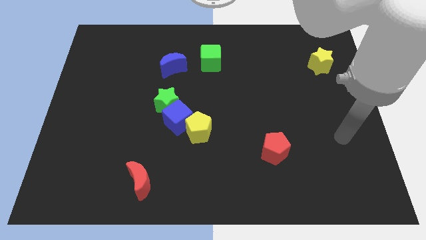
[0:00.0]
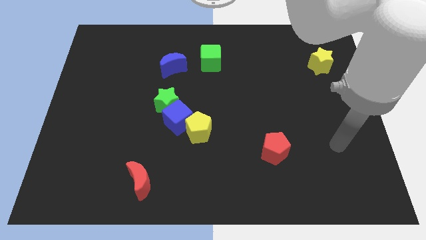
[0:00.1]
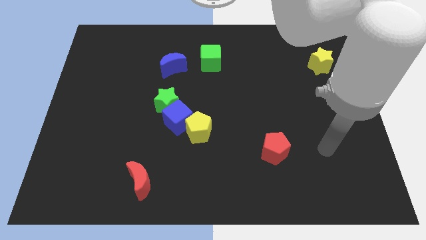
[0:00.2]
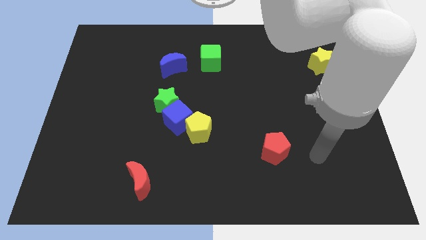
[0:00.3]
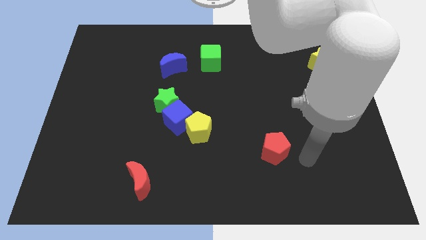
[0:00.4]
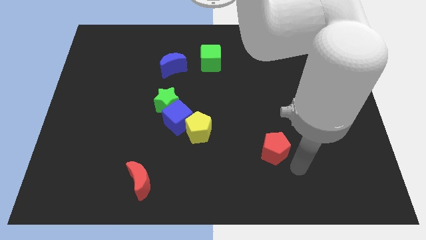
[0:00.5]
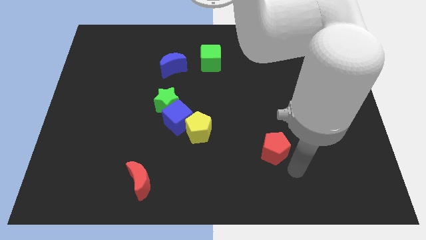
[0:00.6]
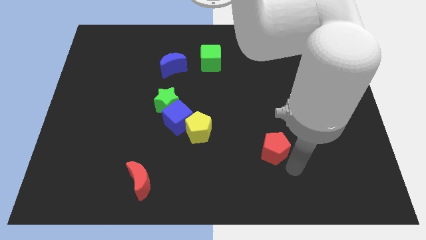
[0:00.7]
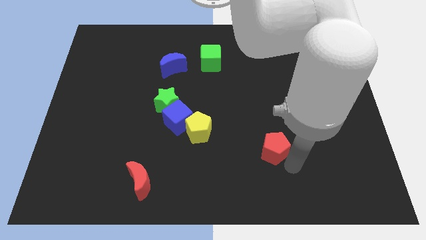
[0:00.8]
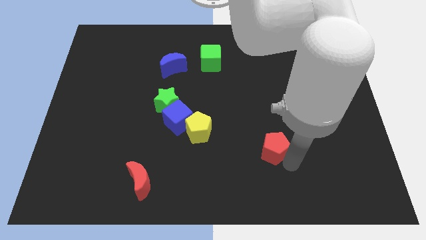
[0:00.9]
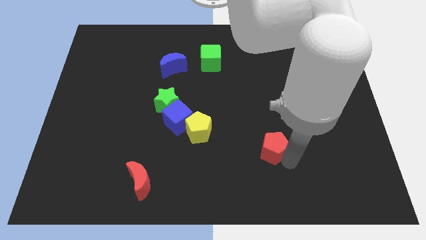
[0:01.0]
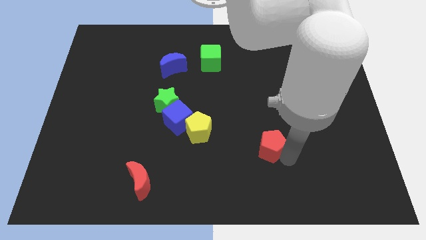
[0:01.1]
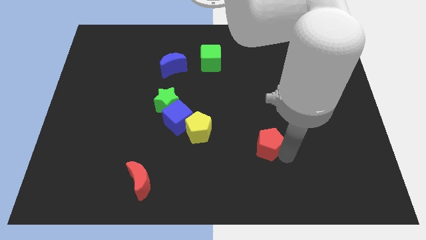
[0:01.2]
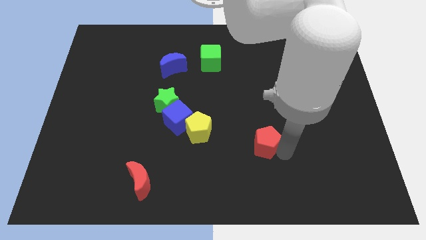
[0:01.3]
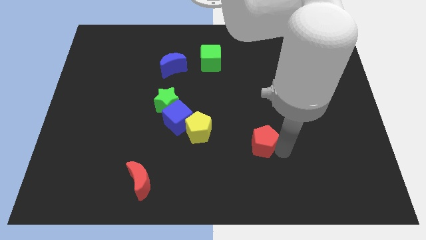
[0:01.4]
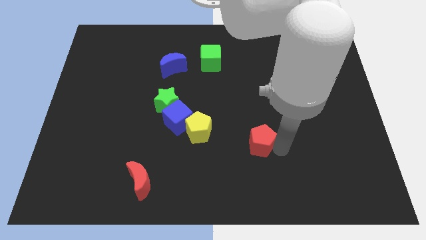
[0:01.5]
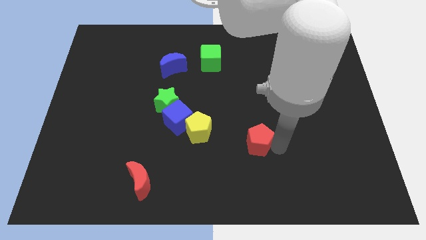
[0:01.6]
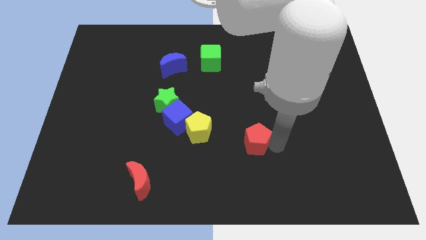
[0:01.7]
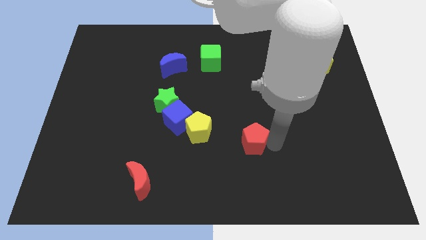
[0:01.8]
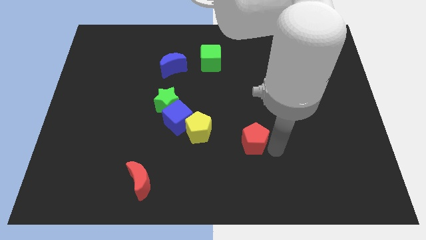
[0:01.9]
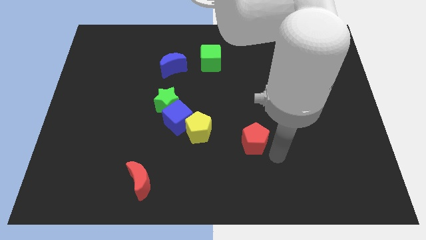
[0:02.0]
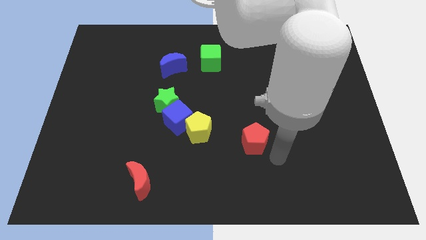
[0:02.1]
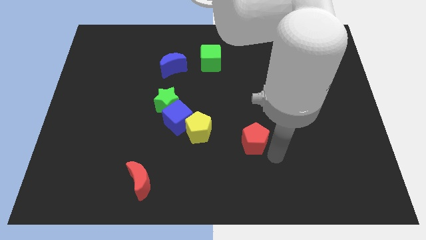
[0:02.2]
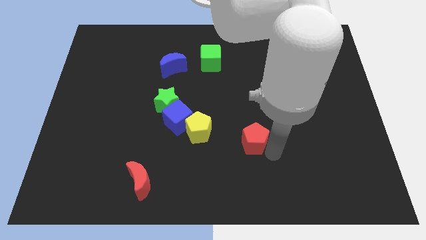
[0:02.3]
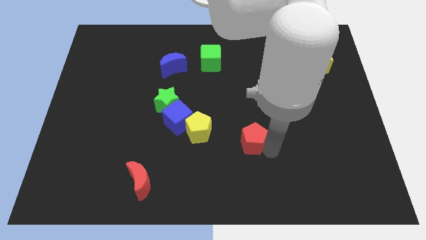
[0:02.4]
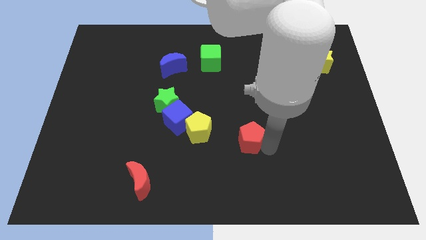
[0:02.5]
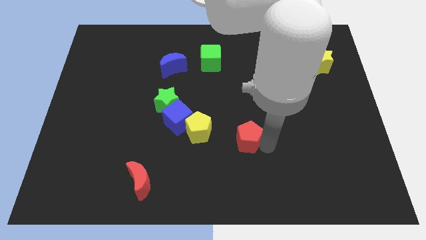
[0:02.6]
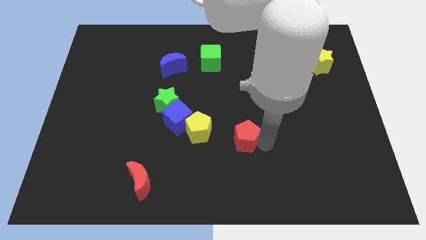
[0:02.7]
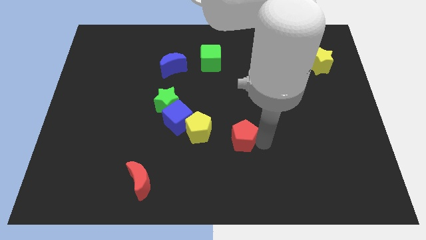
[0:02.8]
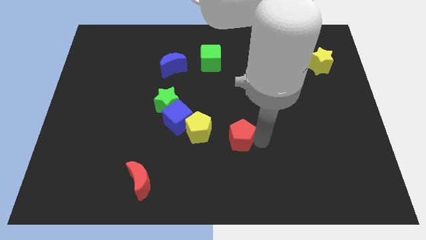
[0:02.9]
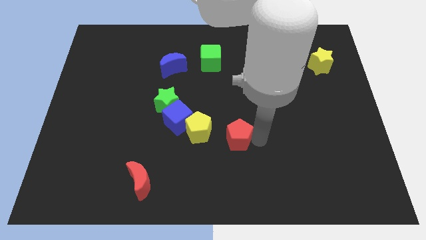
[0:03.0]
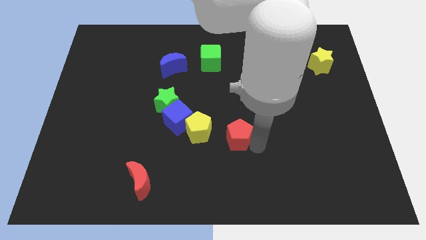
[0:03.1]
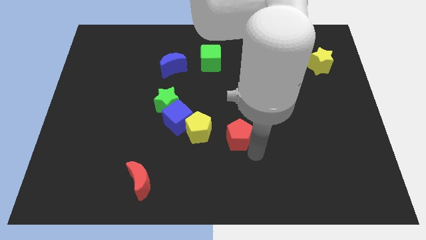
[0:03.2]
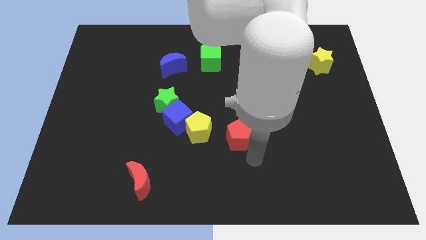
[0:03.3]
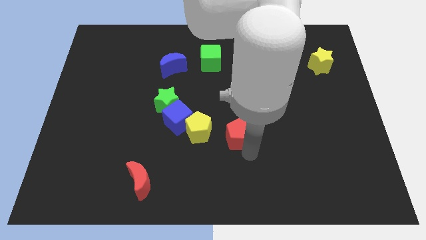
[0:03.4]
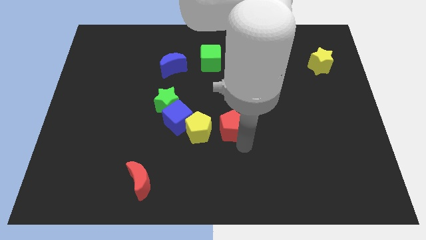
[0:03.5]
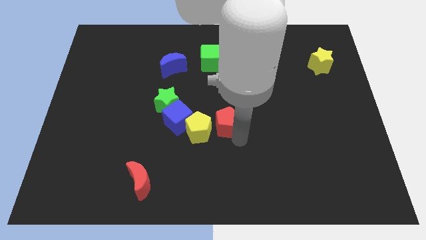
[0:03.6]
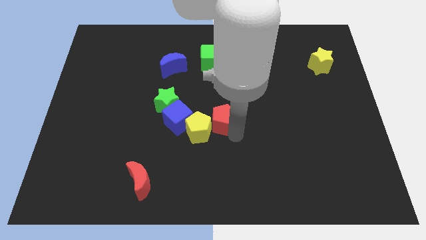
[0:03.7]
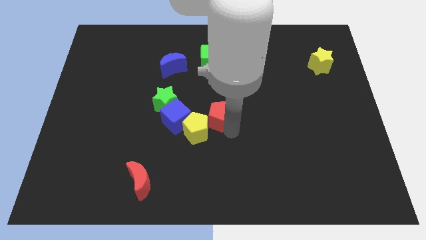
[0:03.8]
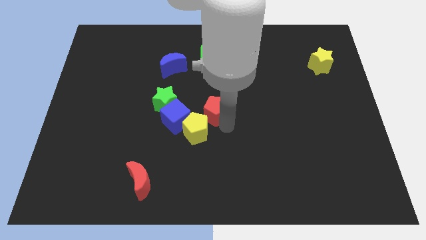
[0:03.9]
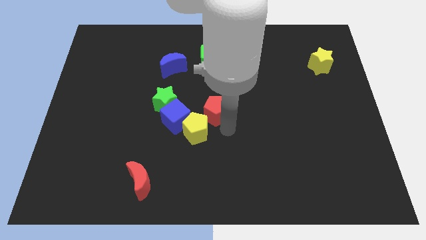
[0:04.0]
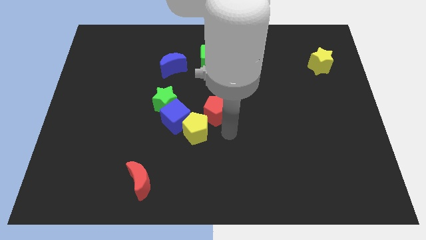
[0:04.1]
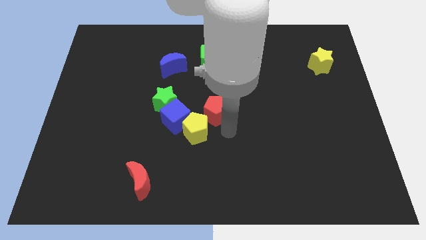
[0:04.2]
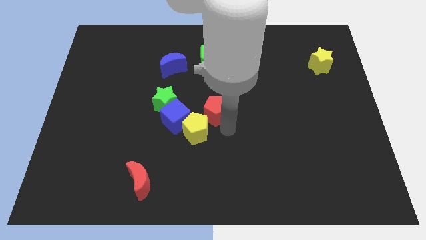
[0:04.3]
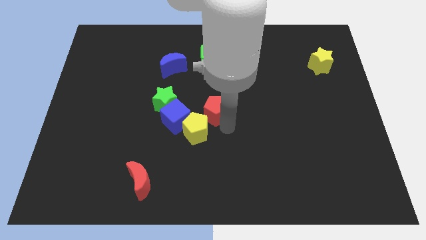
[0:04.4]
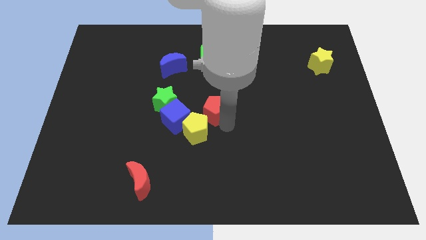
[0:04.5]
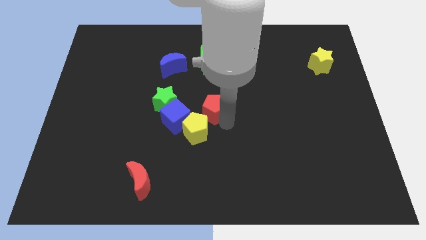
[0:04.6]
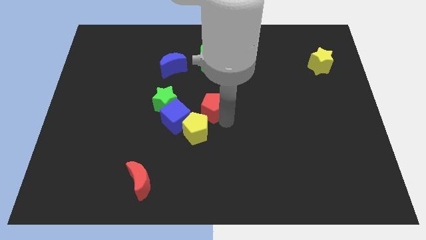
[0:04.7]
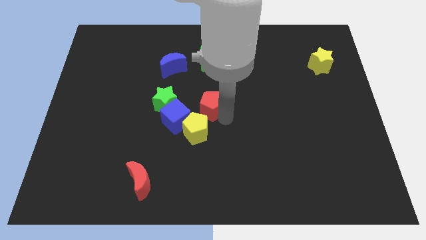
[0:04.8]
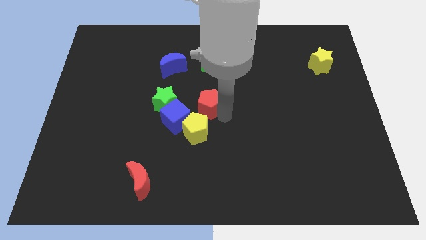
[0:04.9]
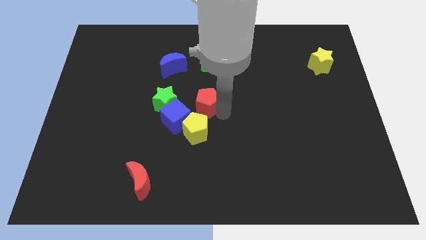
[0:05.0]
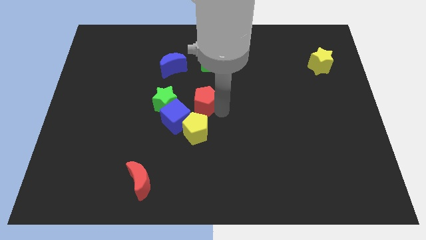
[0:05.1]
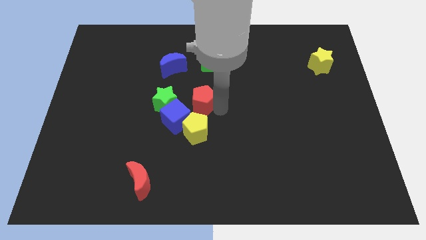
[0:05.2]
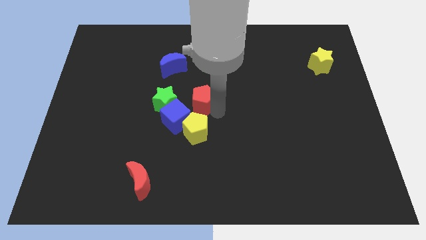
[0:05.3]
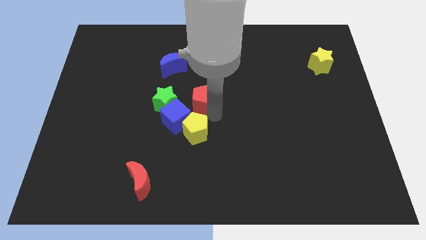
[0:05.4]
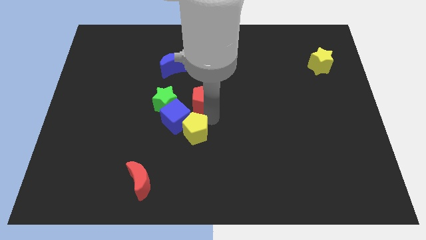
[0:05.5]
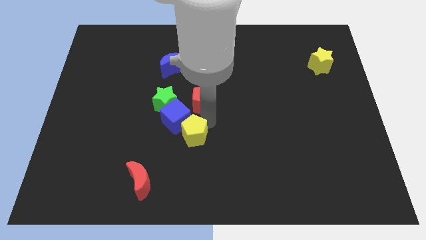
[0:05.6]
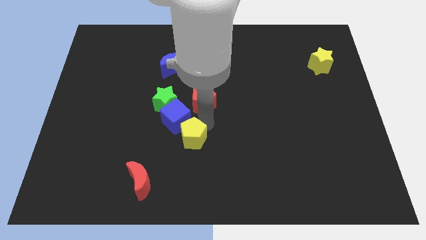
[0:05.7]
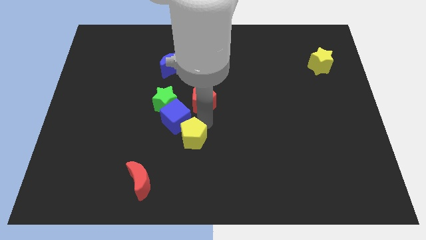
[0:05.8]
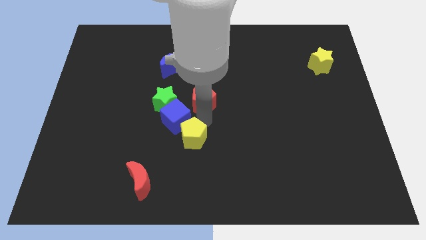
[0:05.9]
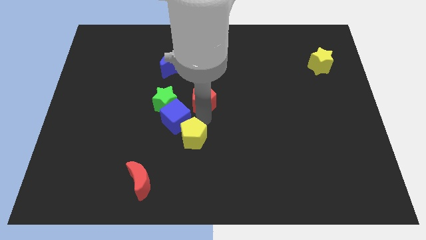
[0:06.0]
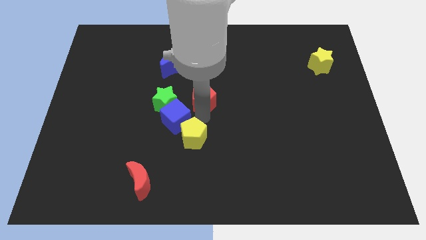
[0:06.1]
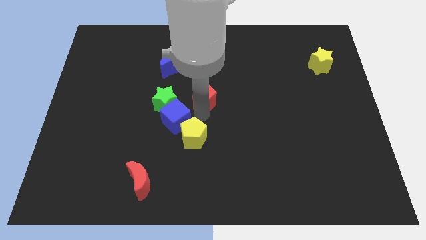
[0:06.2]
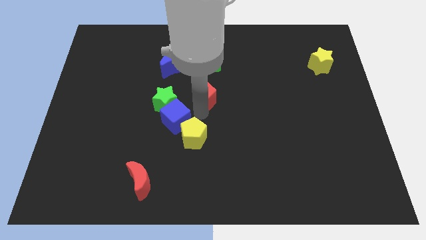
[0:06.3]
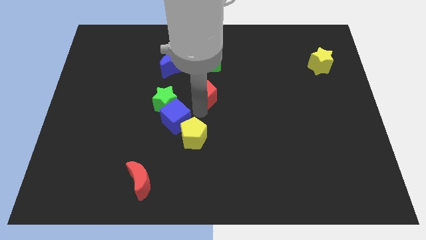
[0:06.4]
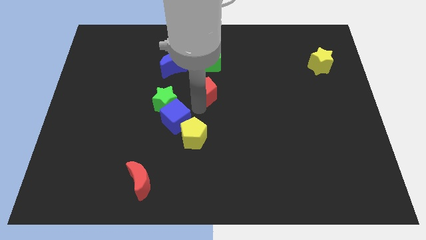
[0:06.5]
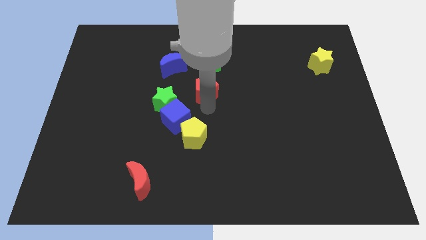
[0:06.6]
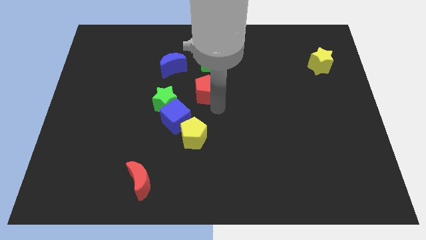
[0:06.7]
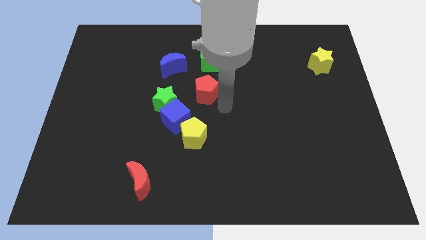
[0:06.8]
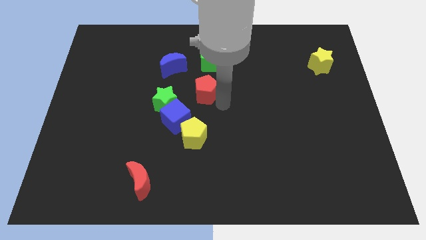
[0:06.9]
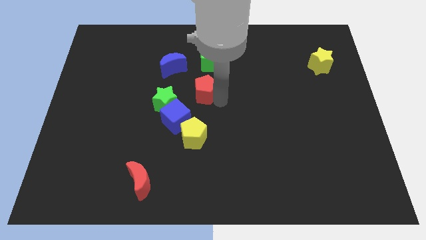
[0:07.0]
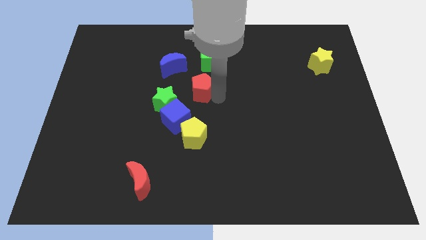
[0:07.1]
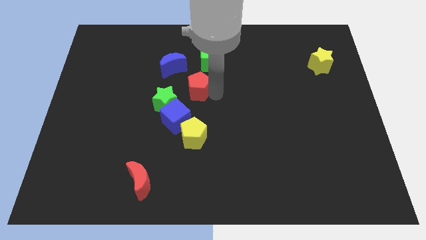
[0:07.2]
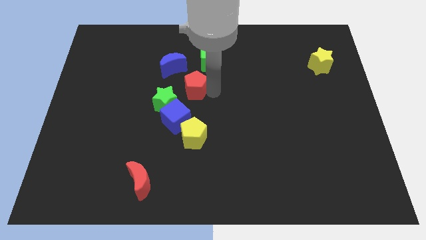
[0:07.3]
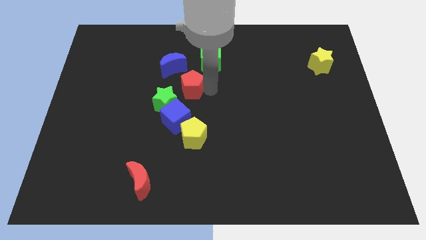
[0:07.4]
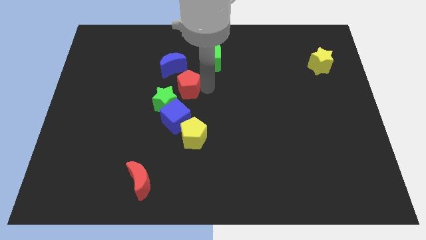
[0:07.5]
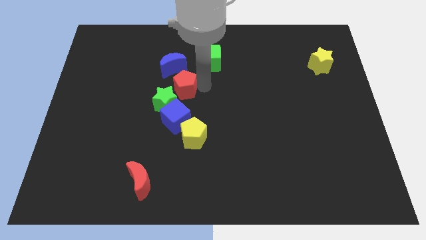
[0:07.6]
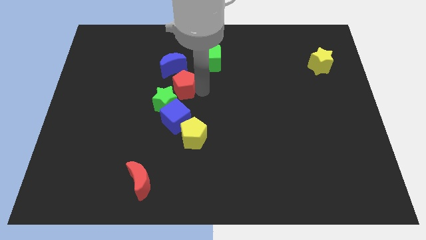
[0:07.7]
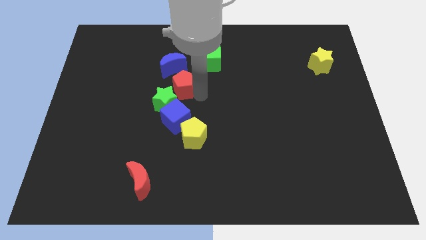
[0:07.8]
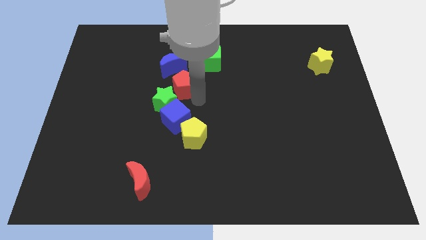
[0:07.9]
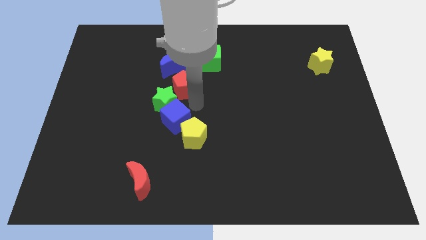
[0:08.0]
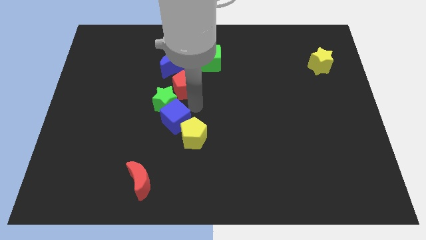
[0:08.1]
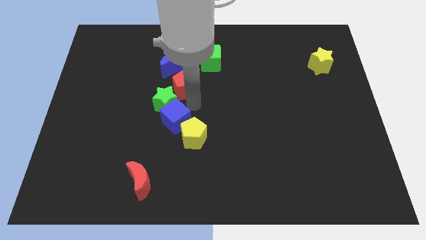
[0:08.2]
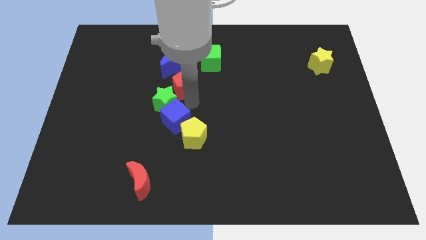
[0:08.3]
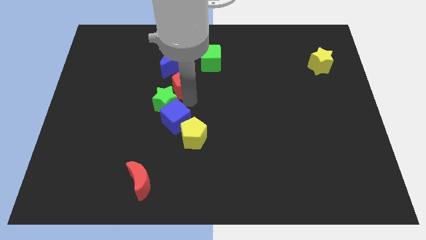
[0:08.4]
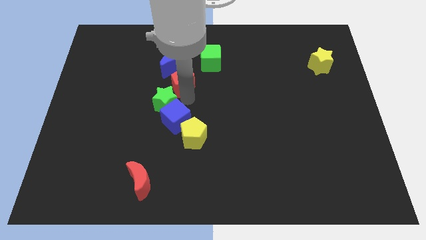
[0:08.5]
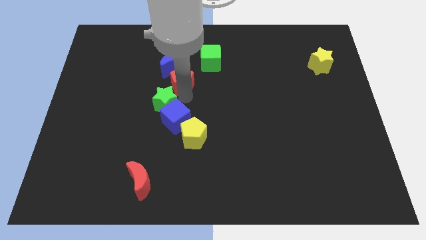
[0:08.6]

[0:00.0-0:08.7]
put the red pentagon close to the blue moon
